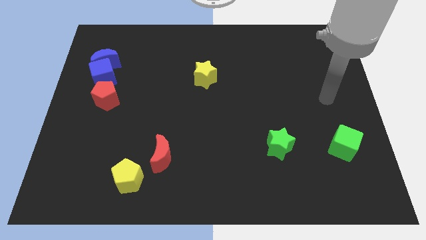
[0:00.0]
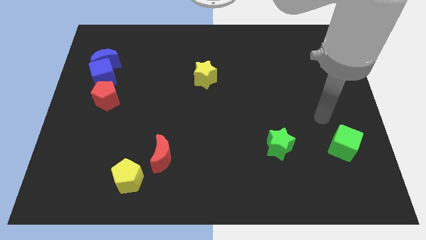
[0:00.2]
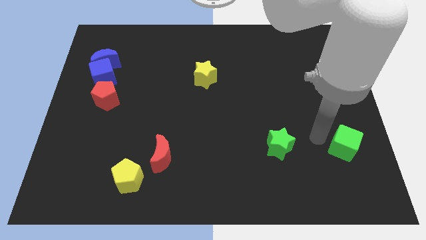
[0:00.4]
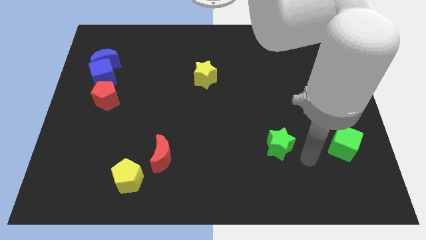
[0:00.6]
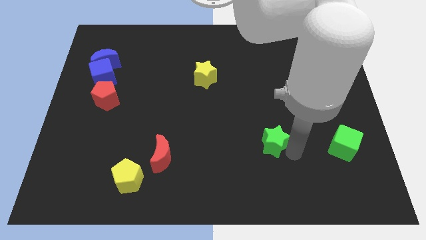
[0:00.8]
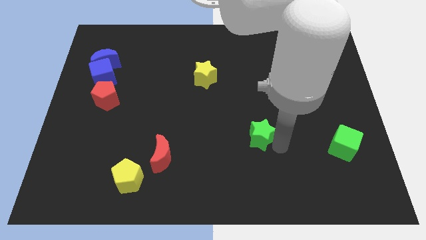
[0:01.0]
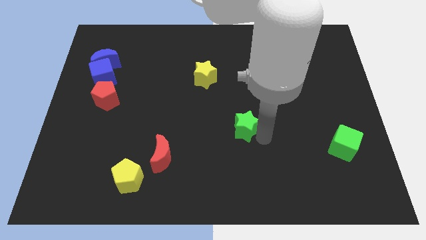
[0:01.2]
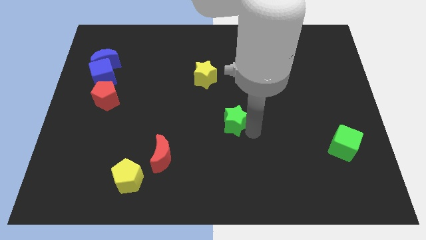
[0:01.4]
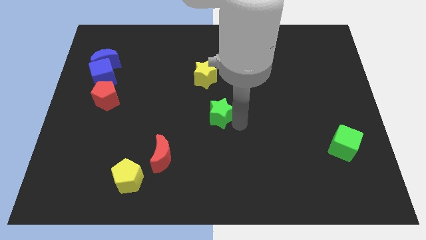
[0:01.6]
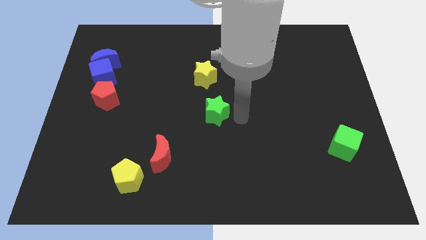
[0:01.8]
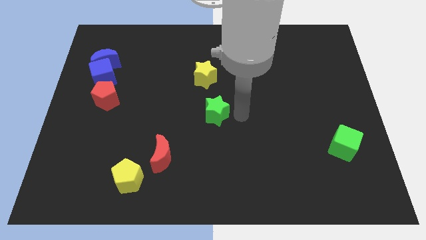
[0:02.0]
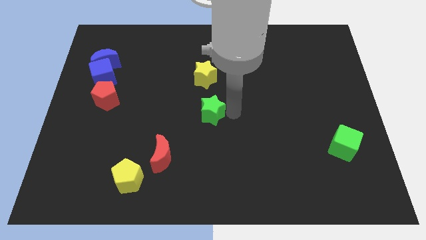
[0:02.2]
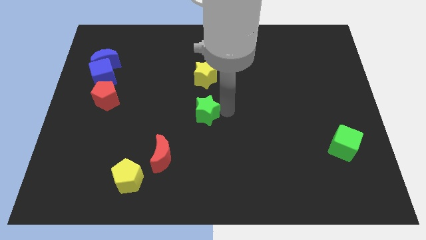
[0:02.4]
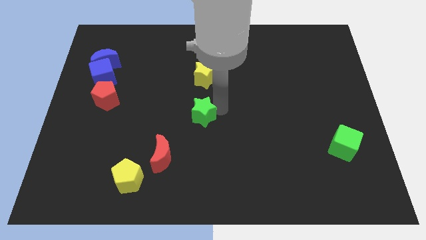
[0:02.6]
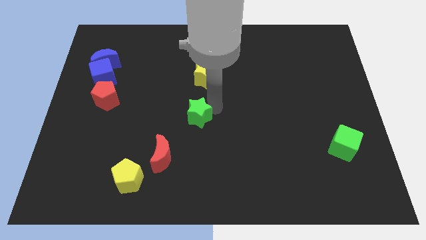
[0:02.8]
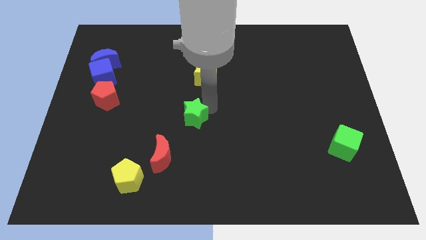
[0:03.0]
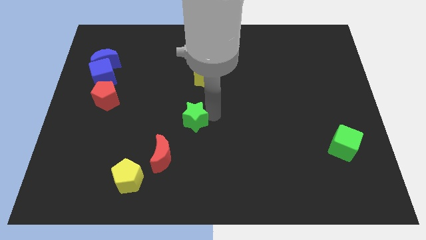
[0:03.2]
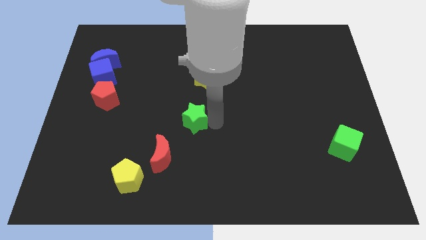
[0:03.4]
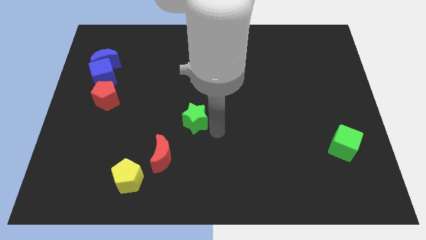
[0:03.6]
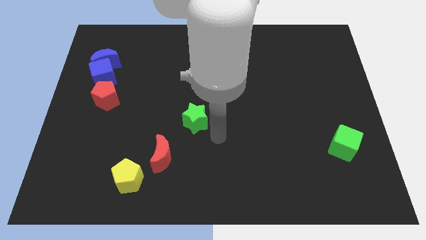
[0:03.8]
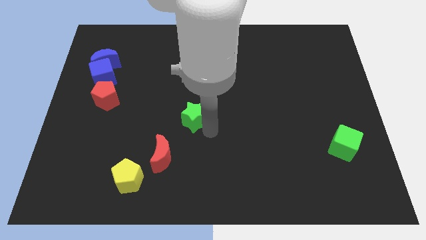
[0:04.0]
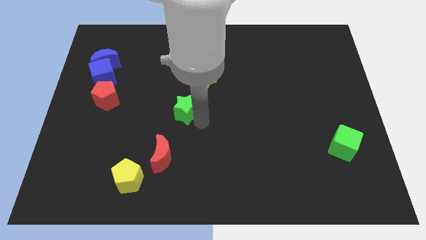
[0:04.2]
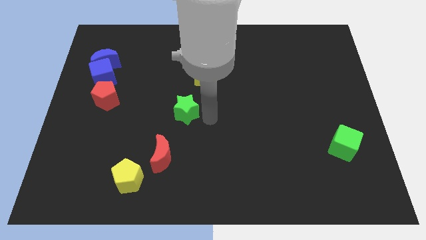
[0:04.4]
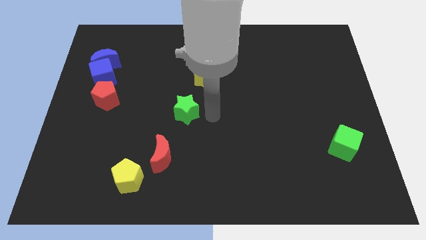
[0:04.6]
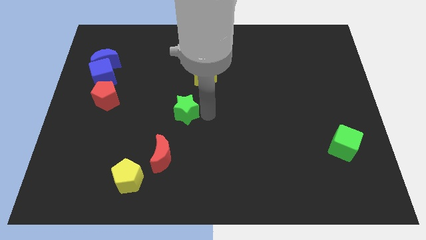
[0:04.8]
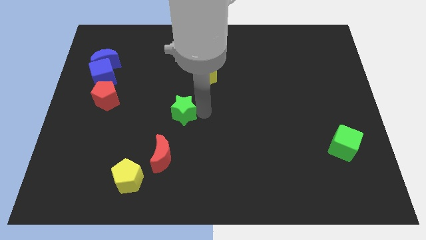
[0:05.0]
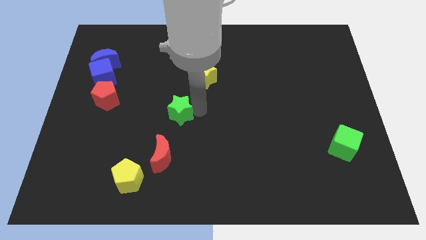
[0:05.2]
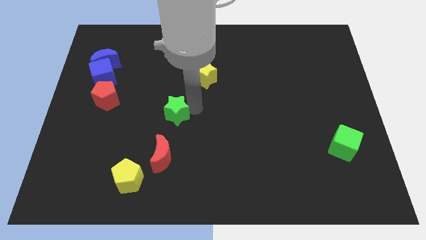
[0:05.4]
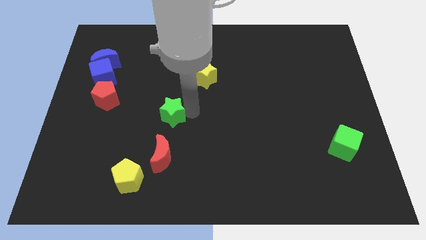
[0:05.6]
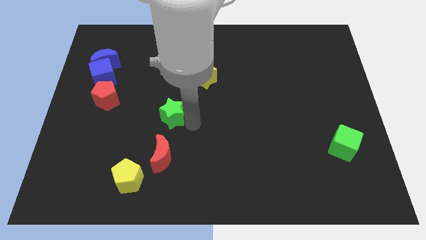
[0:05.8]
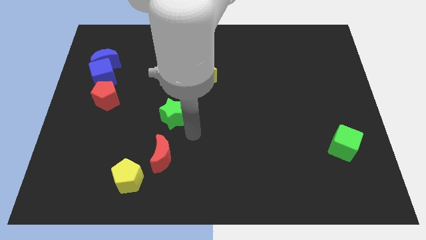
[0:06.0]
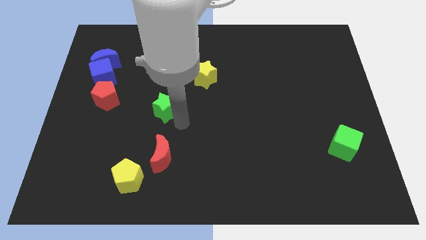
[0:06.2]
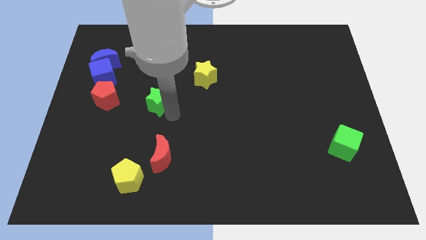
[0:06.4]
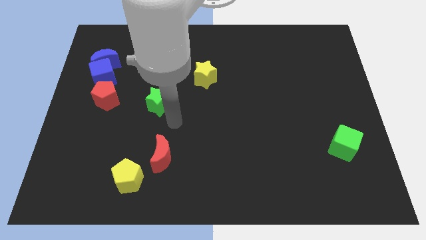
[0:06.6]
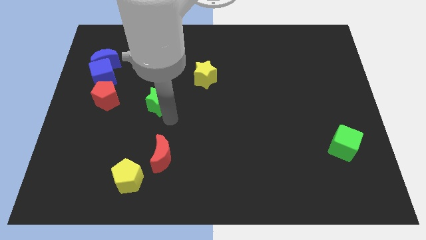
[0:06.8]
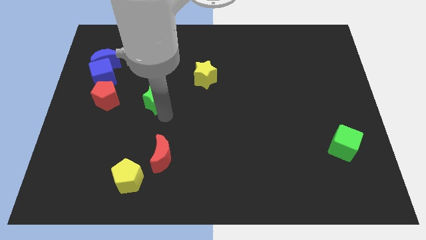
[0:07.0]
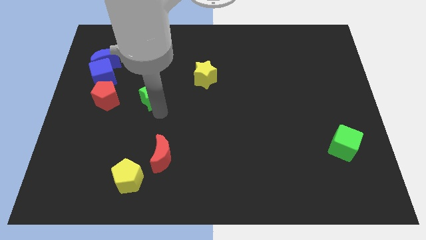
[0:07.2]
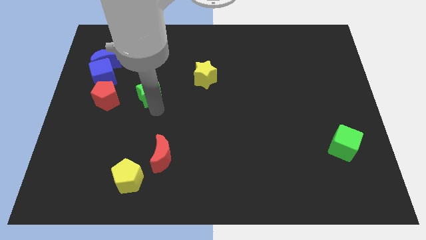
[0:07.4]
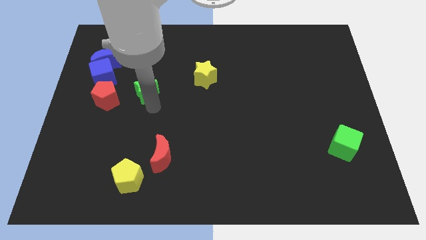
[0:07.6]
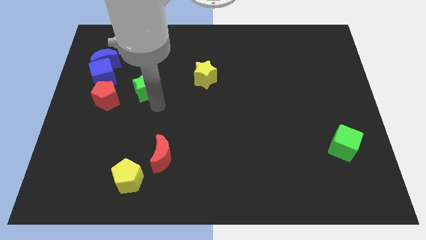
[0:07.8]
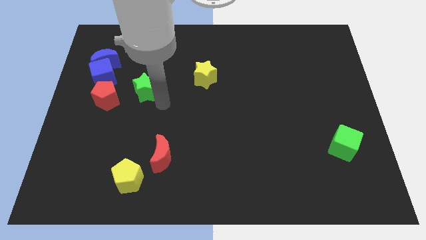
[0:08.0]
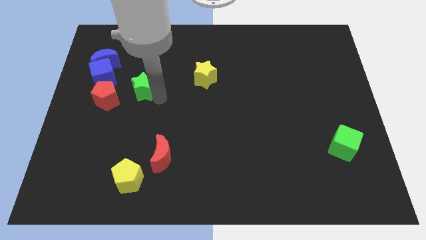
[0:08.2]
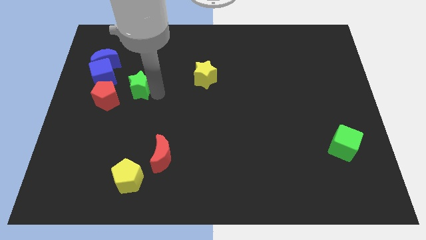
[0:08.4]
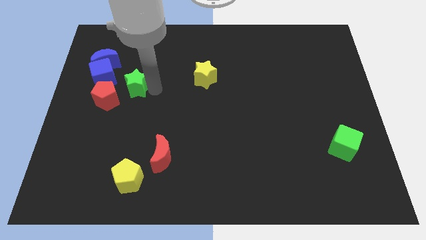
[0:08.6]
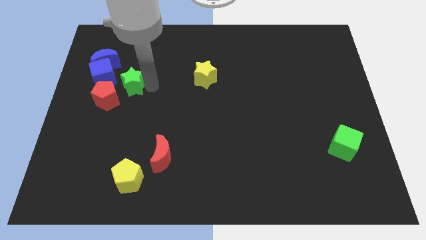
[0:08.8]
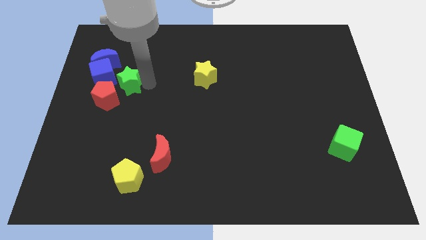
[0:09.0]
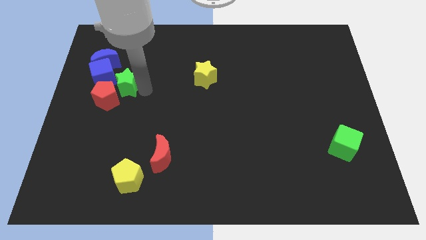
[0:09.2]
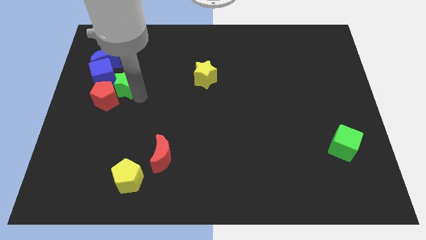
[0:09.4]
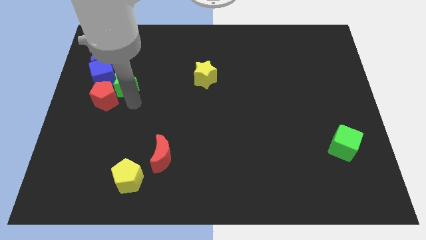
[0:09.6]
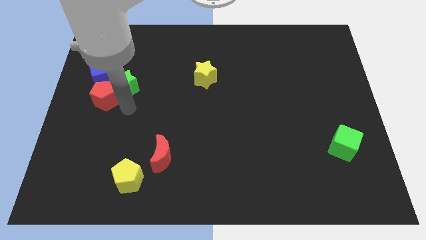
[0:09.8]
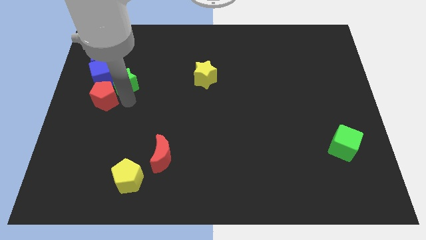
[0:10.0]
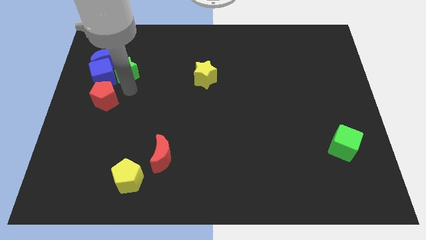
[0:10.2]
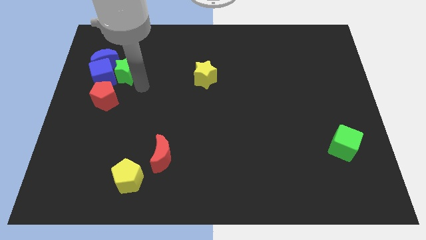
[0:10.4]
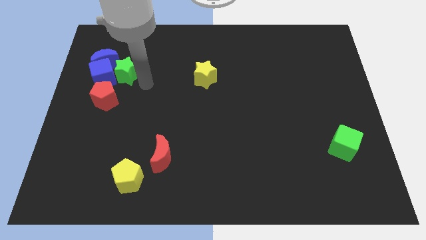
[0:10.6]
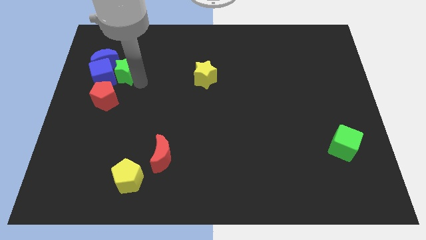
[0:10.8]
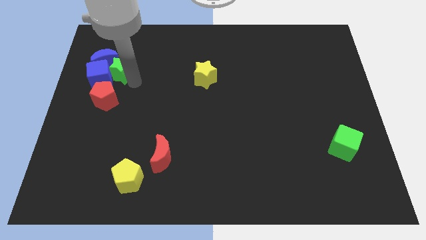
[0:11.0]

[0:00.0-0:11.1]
push the green star next to the blue moon

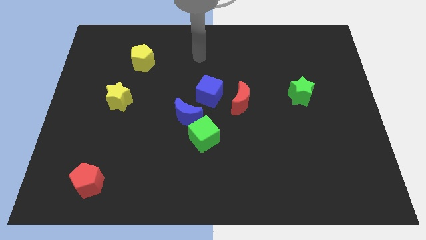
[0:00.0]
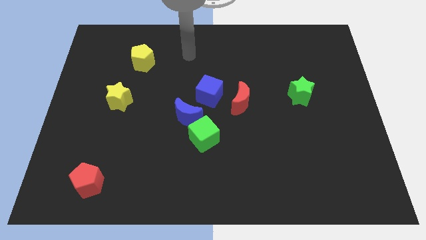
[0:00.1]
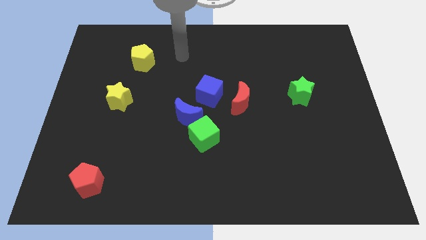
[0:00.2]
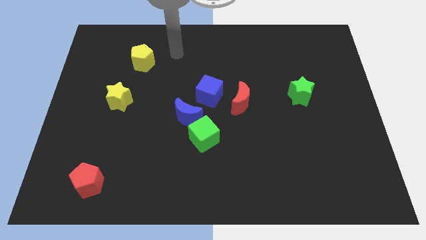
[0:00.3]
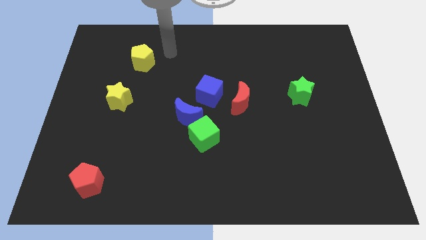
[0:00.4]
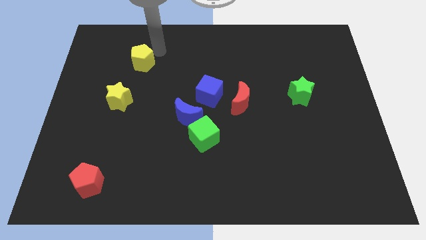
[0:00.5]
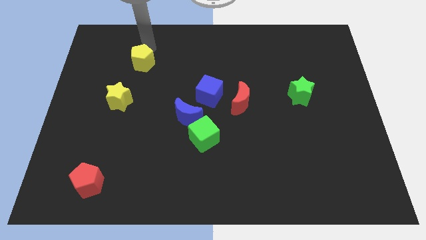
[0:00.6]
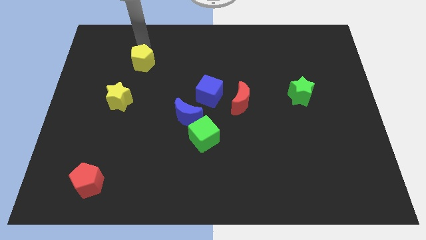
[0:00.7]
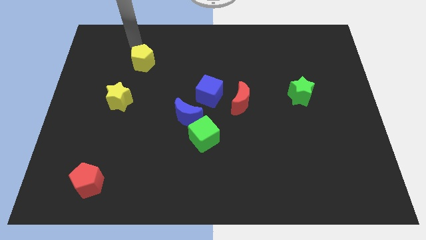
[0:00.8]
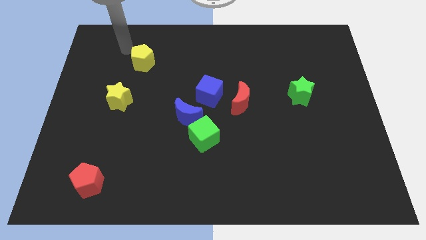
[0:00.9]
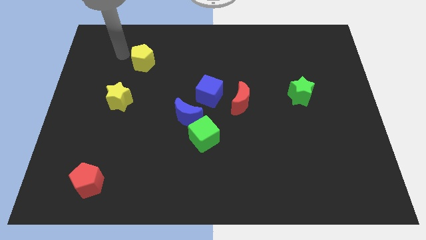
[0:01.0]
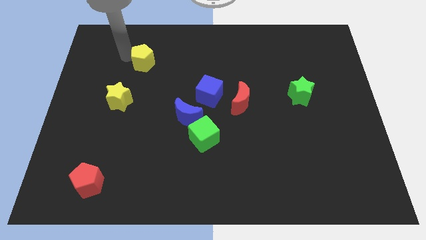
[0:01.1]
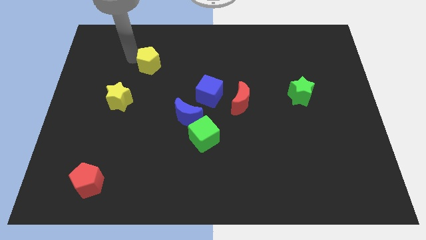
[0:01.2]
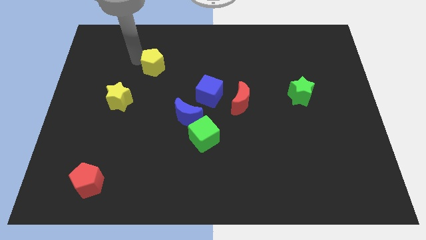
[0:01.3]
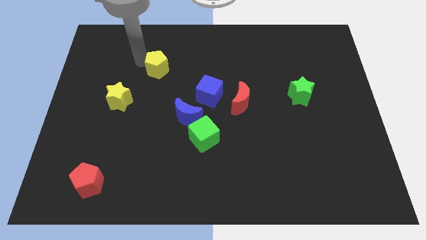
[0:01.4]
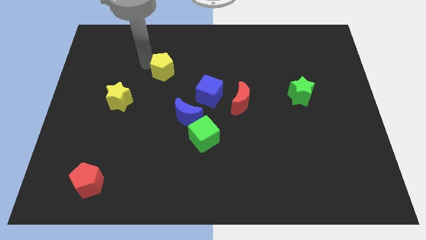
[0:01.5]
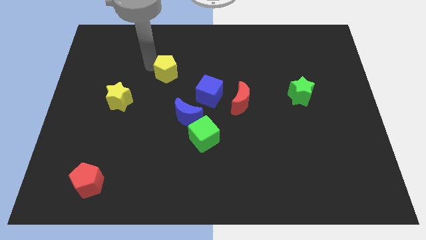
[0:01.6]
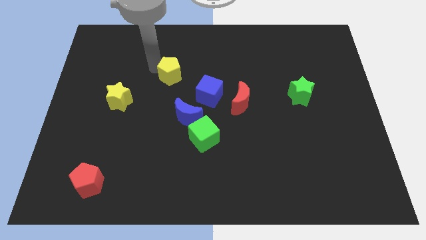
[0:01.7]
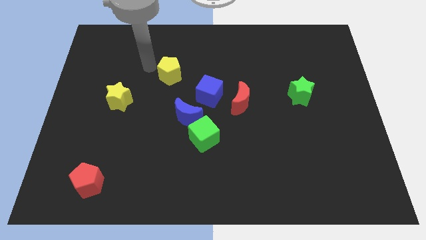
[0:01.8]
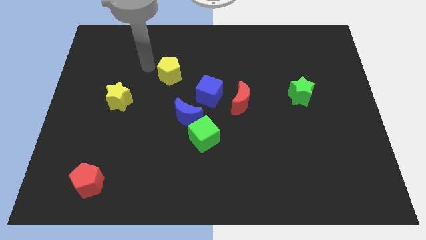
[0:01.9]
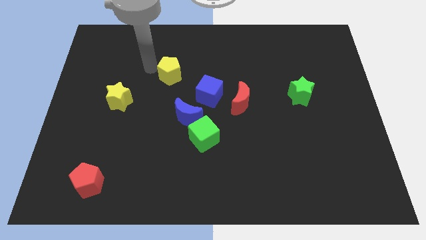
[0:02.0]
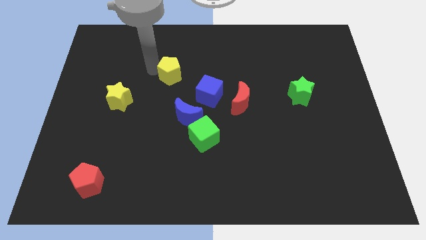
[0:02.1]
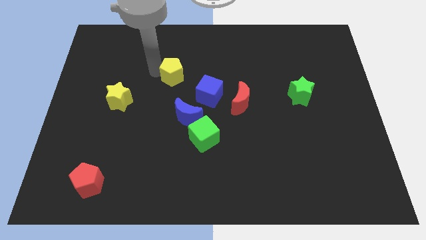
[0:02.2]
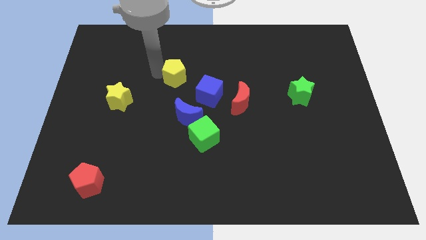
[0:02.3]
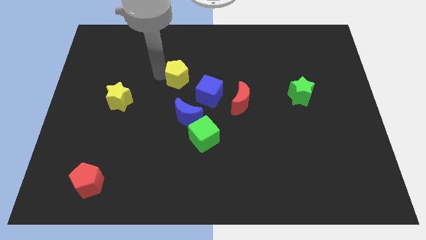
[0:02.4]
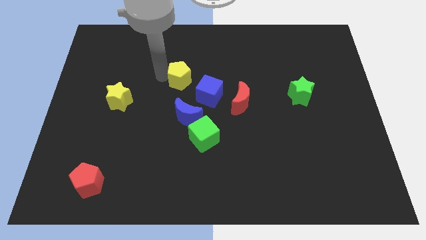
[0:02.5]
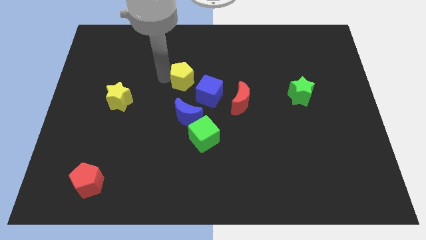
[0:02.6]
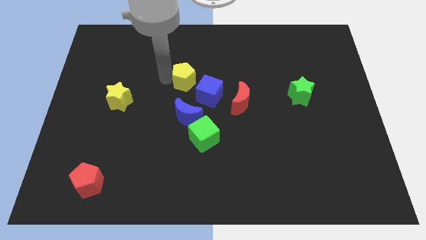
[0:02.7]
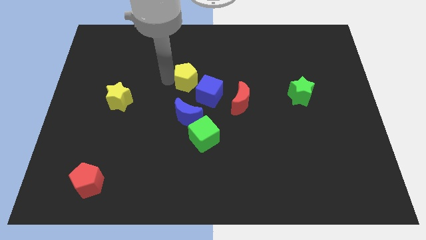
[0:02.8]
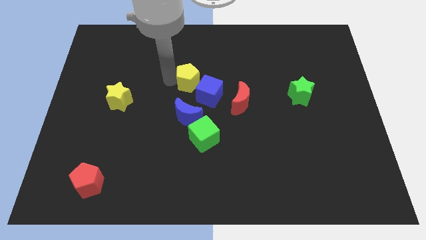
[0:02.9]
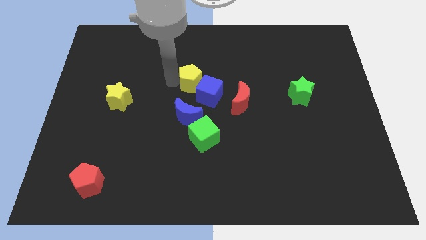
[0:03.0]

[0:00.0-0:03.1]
slide the yellow pentagon close to the blue cube
